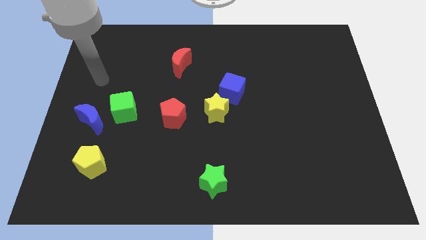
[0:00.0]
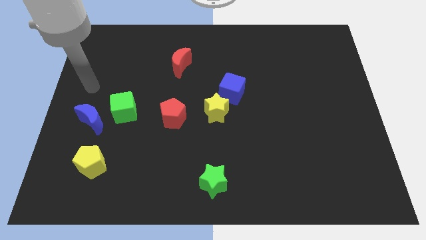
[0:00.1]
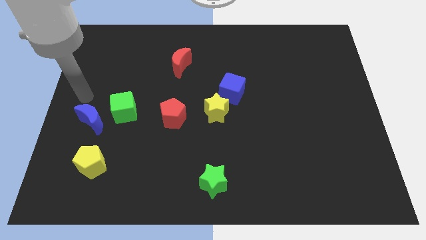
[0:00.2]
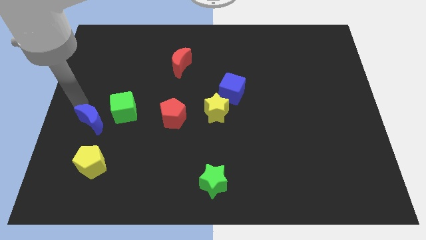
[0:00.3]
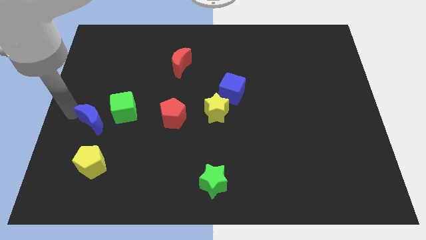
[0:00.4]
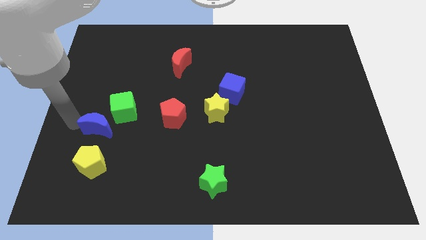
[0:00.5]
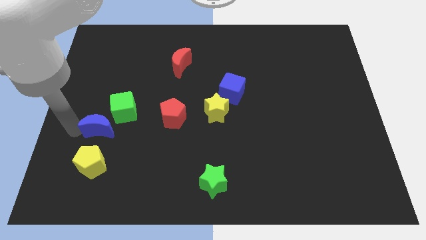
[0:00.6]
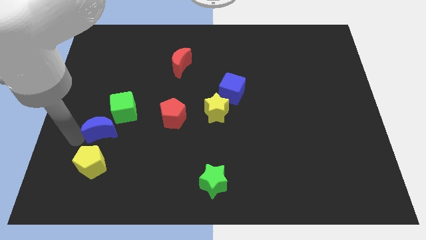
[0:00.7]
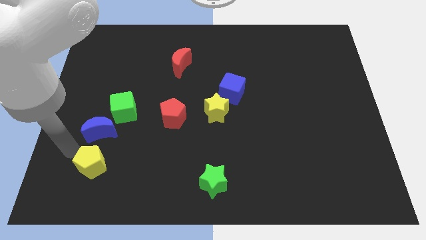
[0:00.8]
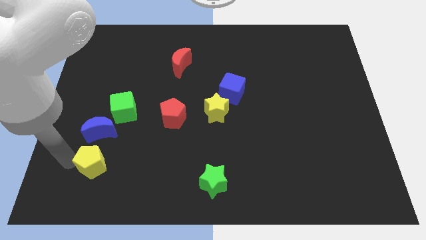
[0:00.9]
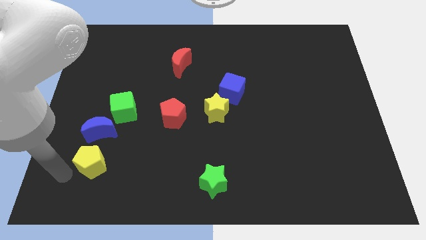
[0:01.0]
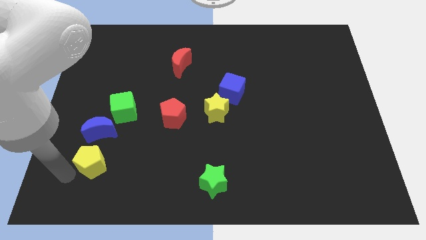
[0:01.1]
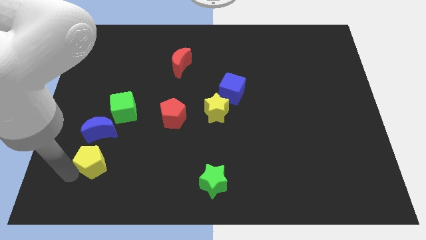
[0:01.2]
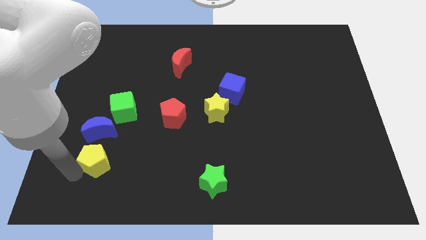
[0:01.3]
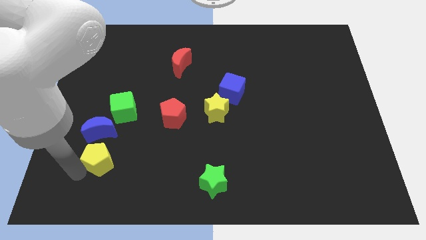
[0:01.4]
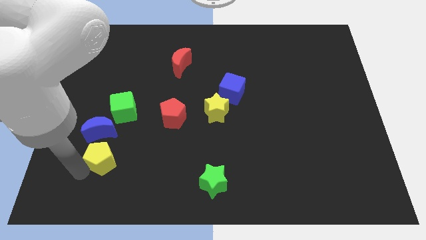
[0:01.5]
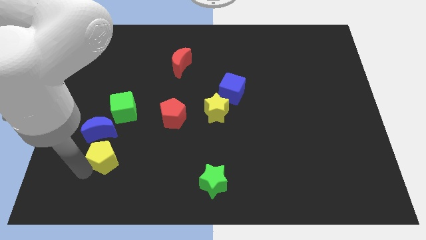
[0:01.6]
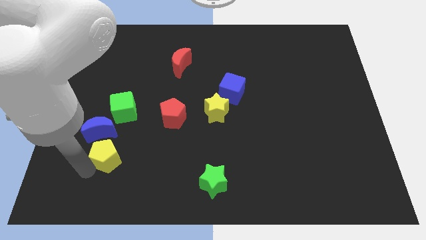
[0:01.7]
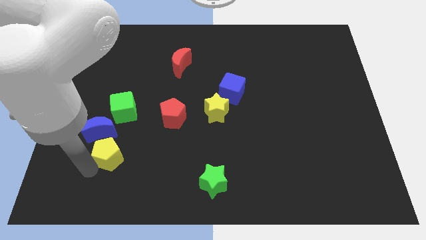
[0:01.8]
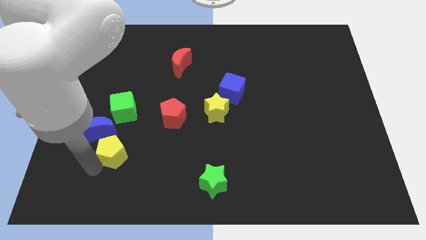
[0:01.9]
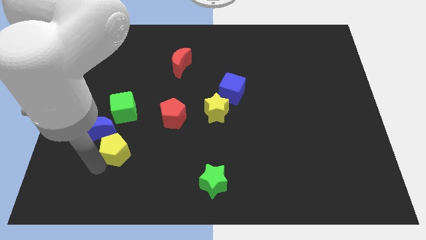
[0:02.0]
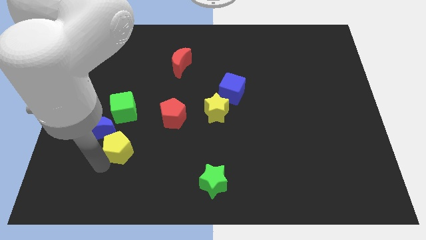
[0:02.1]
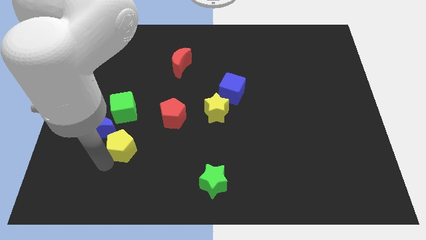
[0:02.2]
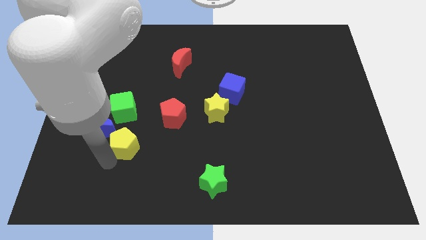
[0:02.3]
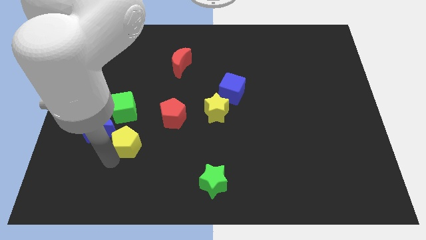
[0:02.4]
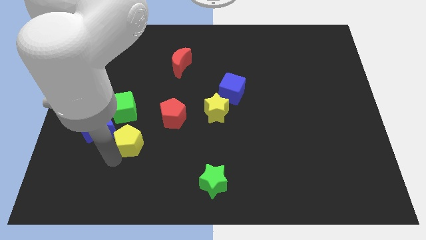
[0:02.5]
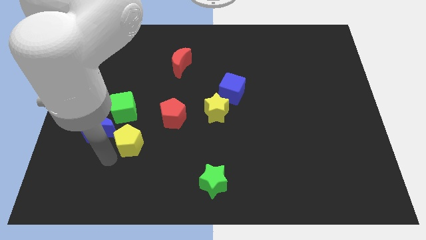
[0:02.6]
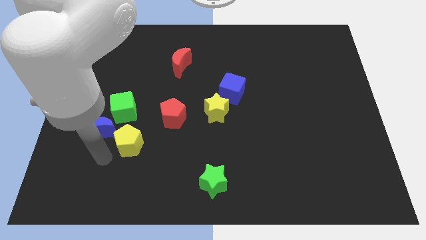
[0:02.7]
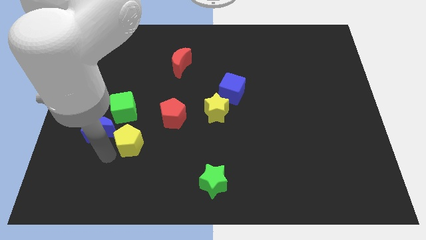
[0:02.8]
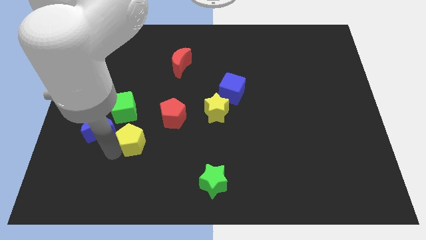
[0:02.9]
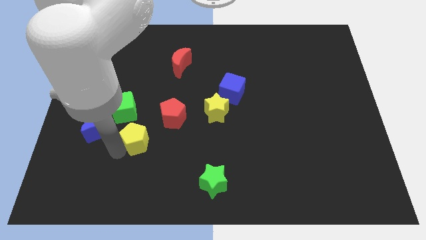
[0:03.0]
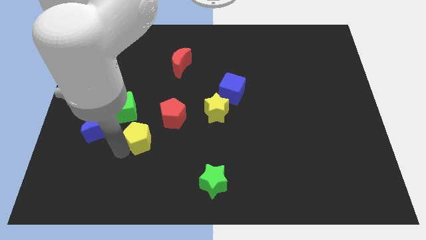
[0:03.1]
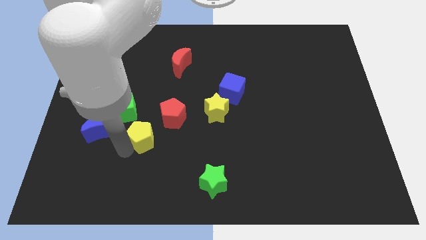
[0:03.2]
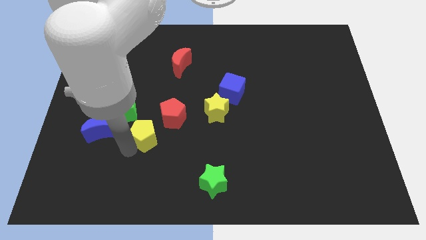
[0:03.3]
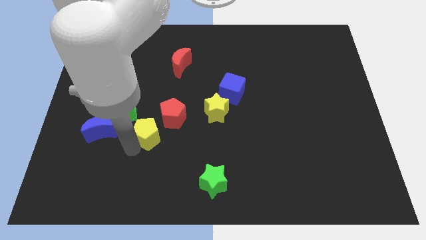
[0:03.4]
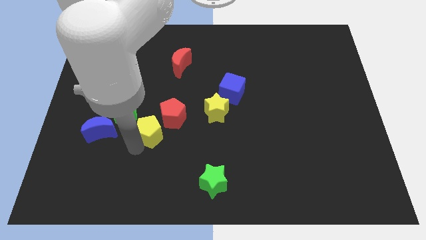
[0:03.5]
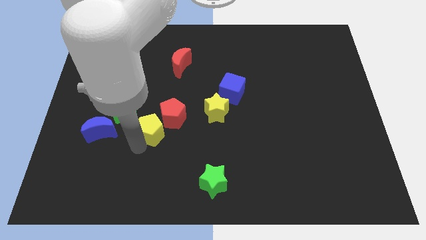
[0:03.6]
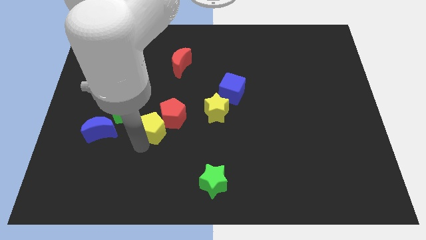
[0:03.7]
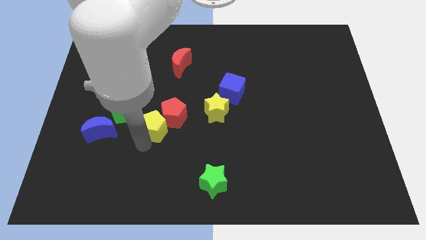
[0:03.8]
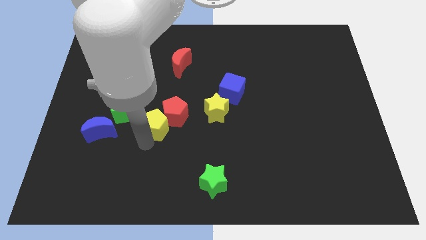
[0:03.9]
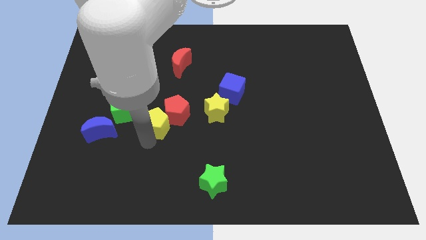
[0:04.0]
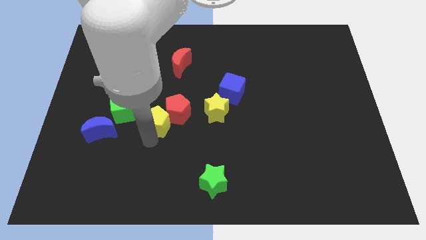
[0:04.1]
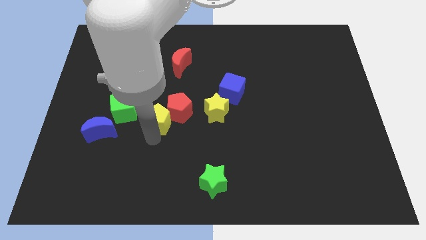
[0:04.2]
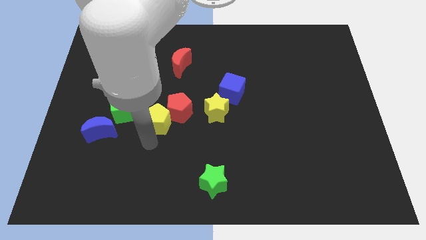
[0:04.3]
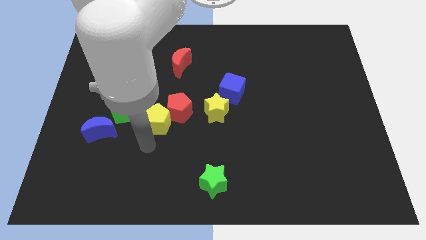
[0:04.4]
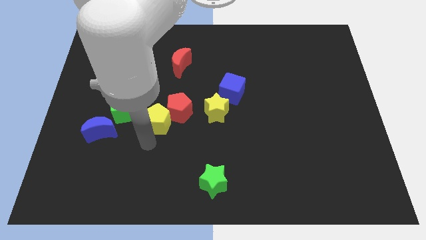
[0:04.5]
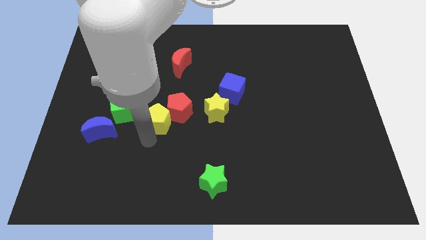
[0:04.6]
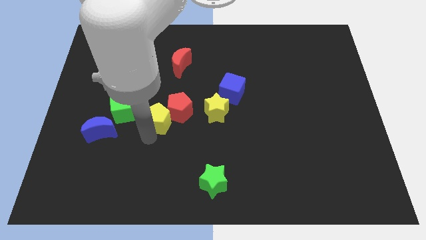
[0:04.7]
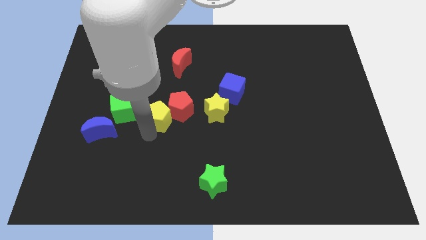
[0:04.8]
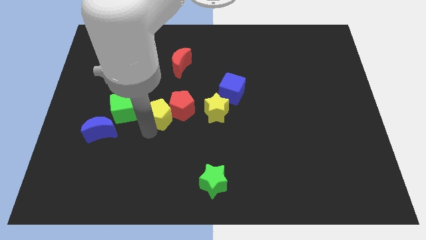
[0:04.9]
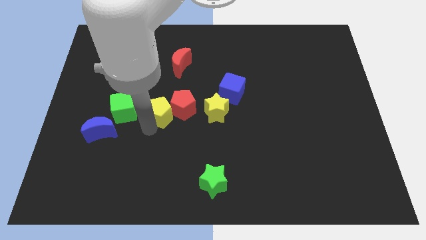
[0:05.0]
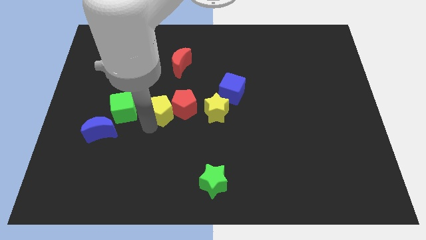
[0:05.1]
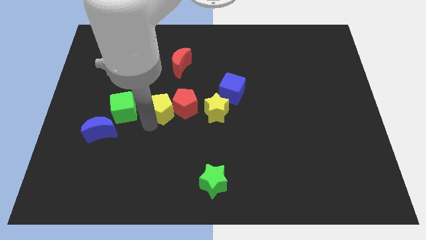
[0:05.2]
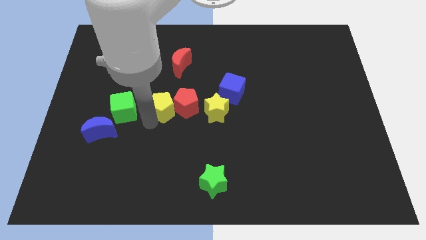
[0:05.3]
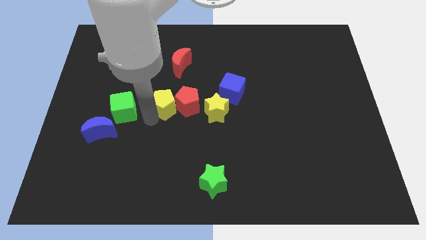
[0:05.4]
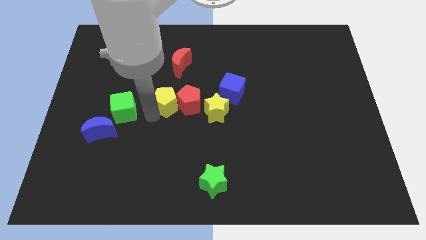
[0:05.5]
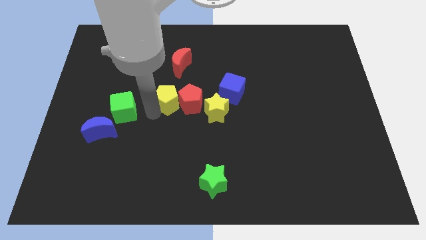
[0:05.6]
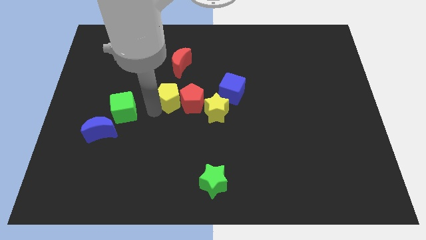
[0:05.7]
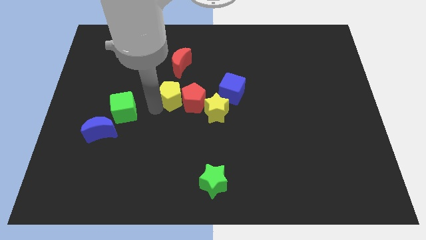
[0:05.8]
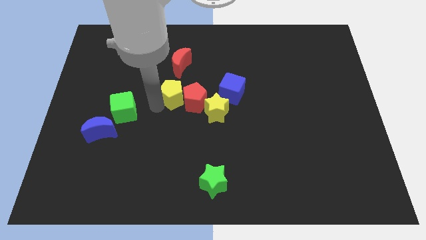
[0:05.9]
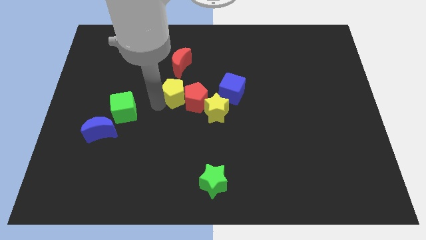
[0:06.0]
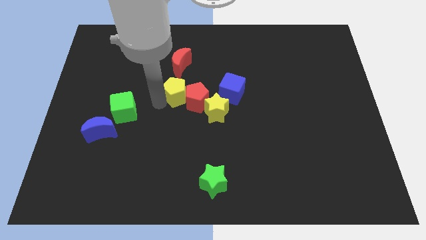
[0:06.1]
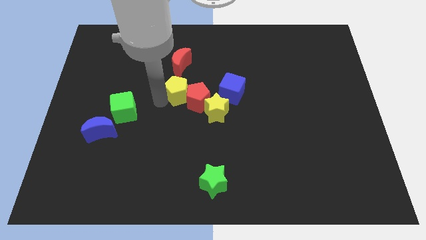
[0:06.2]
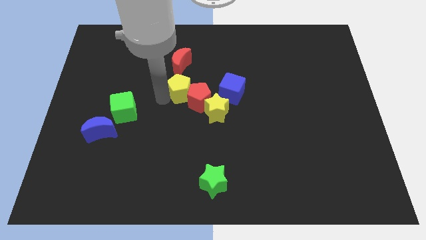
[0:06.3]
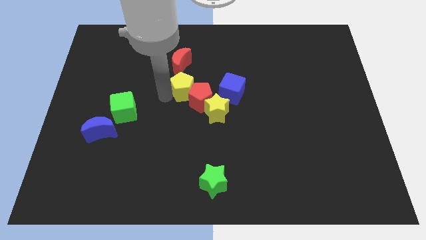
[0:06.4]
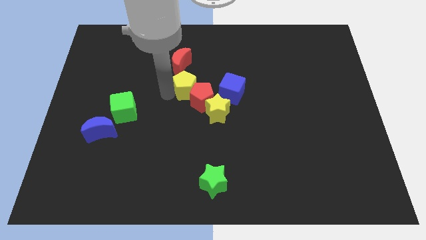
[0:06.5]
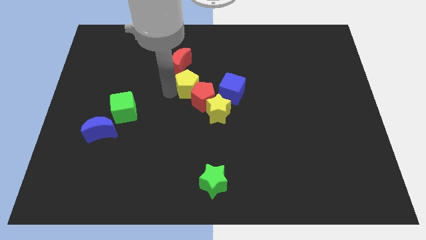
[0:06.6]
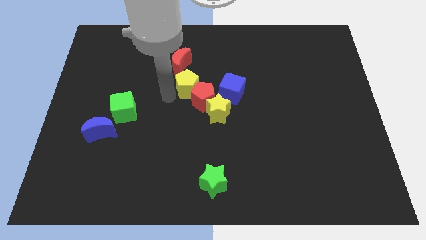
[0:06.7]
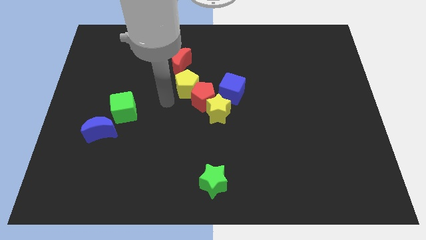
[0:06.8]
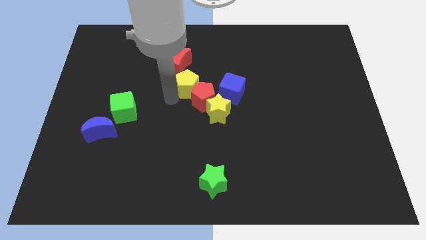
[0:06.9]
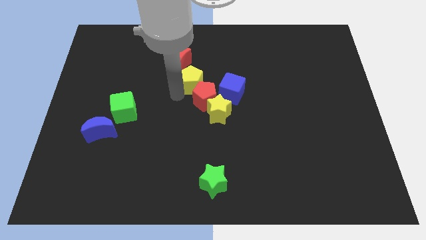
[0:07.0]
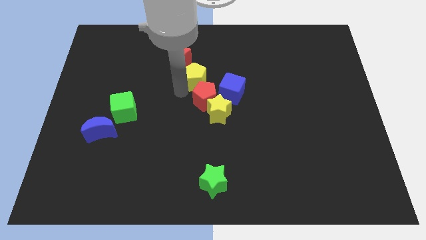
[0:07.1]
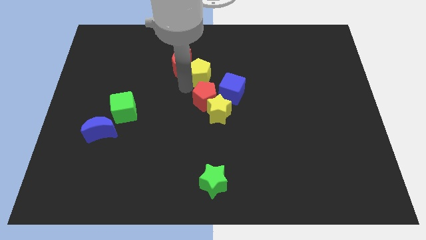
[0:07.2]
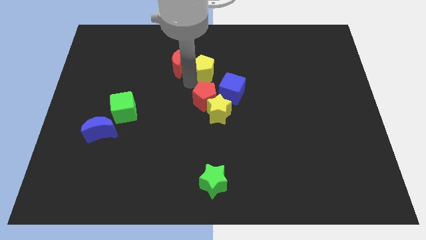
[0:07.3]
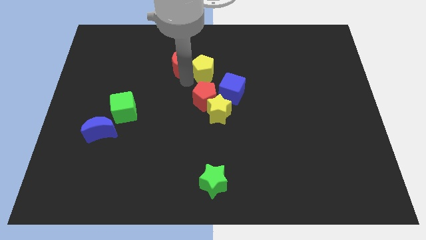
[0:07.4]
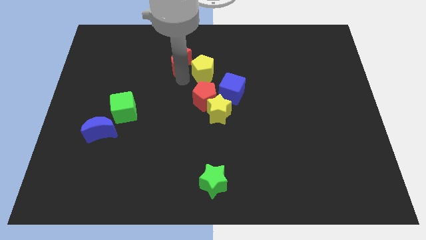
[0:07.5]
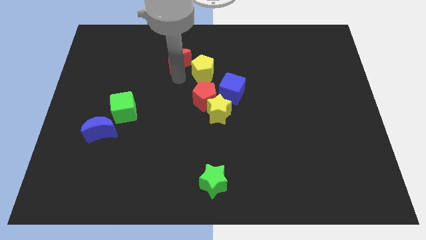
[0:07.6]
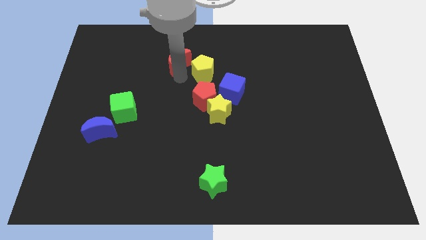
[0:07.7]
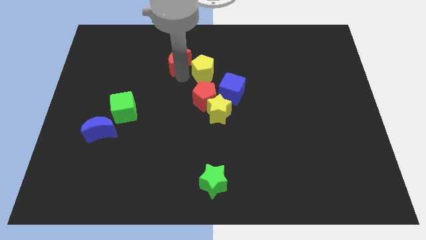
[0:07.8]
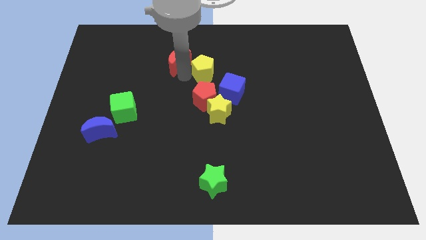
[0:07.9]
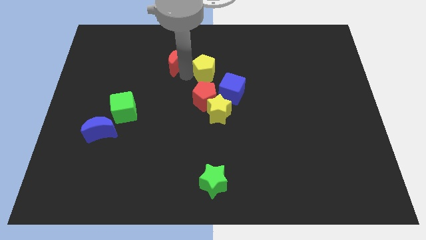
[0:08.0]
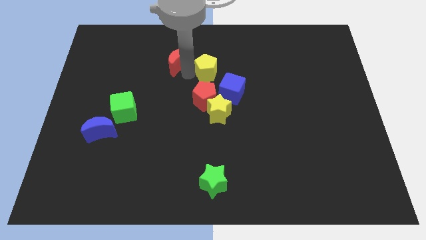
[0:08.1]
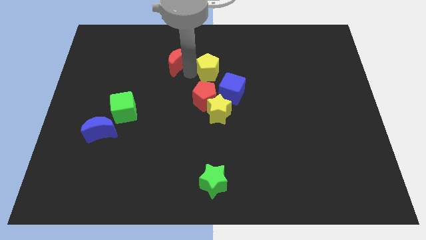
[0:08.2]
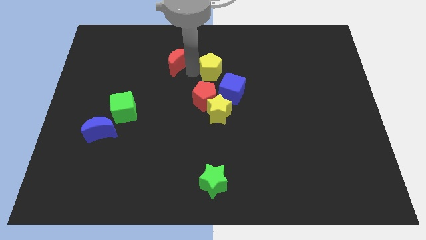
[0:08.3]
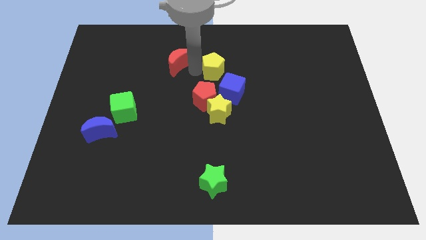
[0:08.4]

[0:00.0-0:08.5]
put the yellow pentagon above the blue cube
